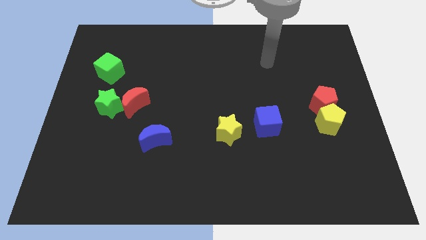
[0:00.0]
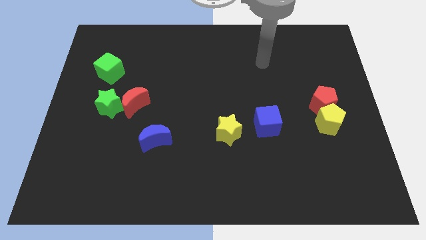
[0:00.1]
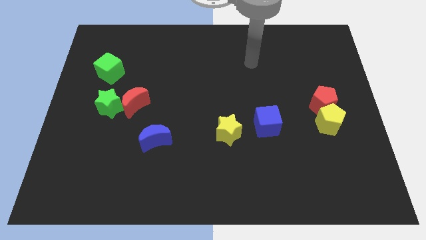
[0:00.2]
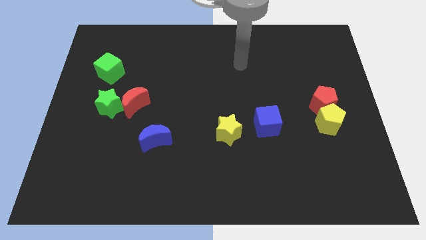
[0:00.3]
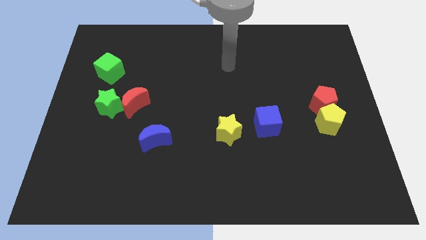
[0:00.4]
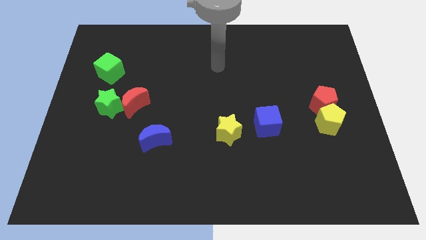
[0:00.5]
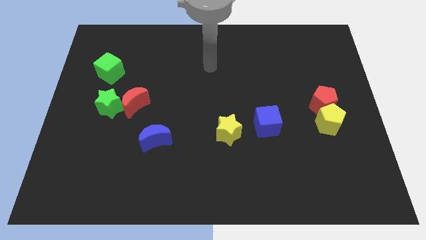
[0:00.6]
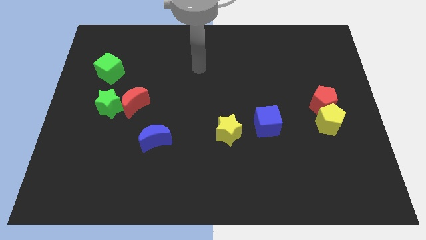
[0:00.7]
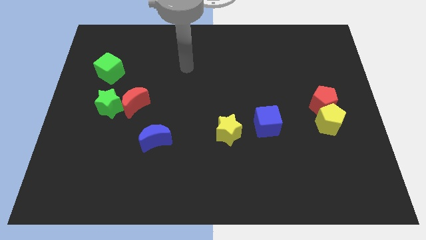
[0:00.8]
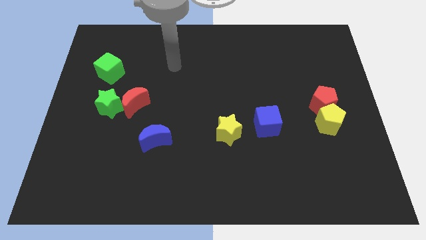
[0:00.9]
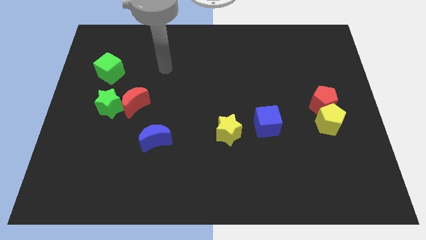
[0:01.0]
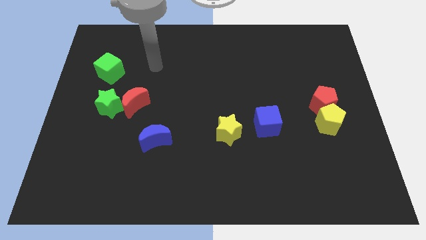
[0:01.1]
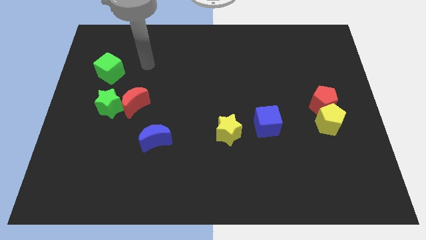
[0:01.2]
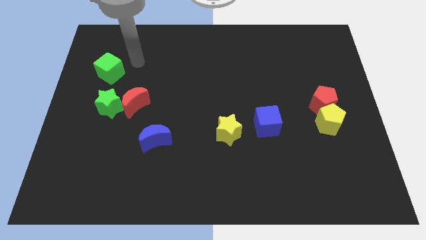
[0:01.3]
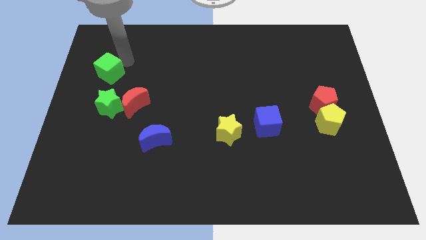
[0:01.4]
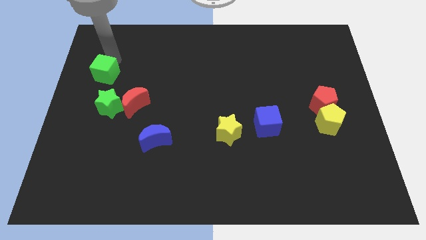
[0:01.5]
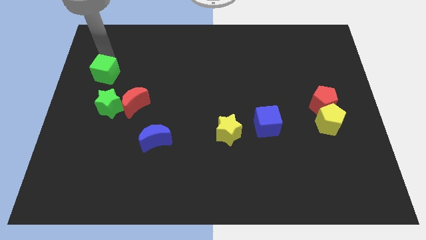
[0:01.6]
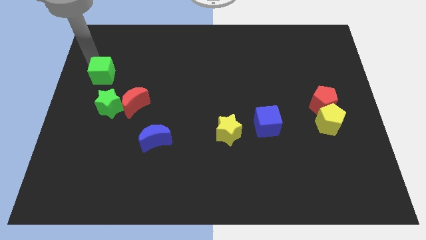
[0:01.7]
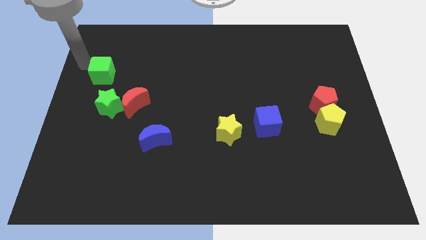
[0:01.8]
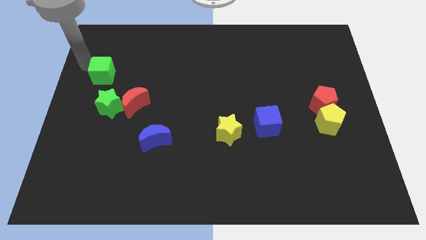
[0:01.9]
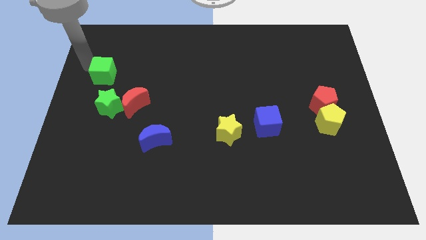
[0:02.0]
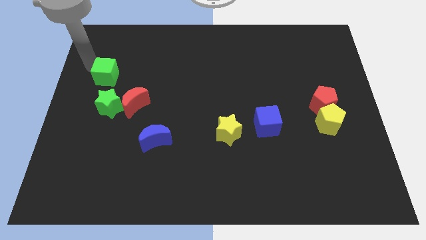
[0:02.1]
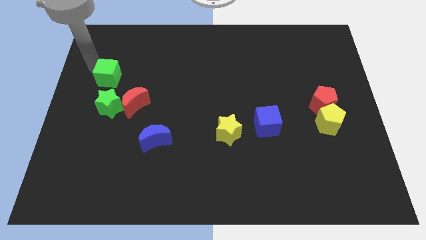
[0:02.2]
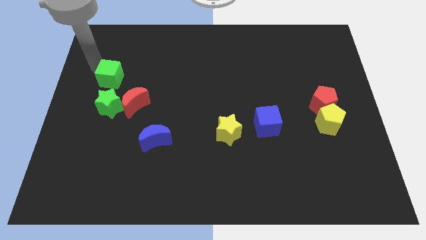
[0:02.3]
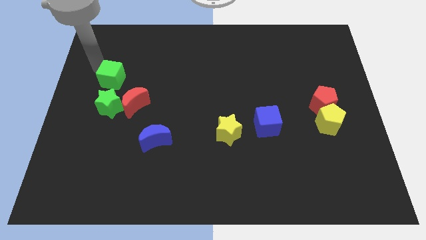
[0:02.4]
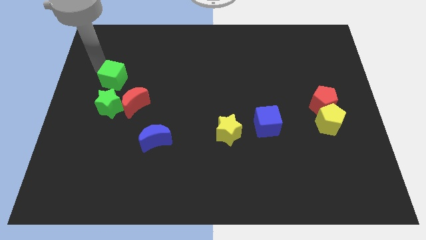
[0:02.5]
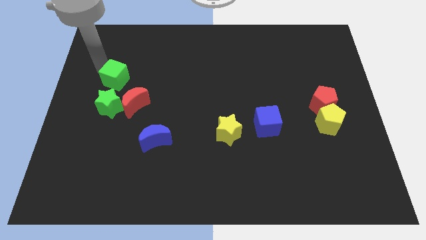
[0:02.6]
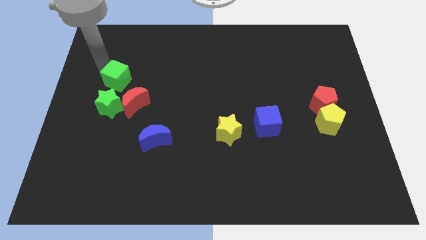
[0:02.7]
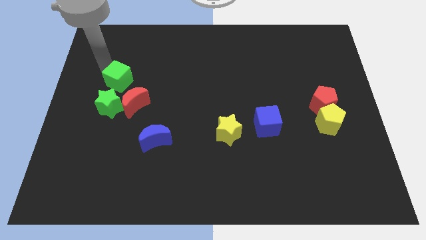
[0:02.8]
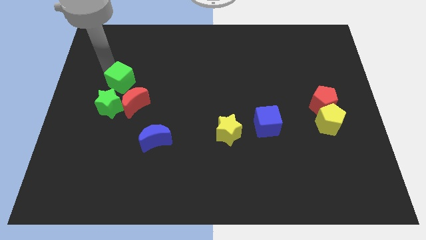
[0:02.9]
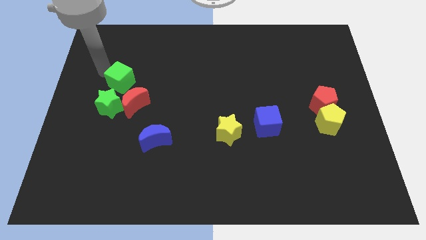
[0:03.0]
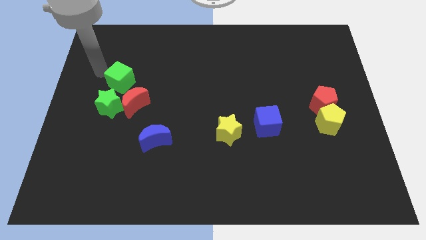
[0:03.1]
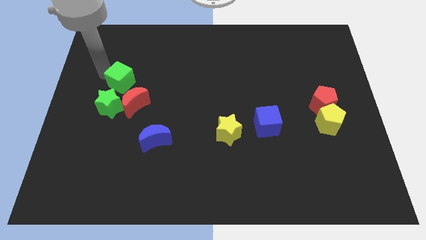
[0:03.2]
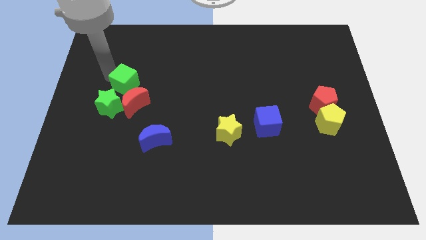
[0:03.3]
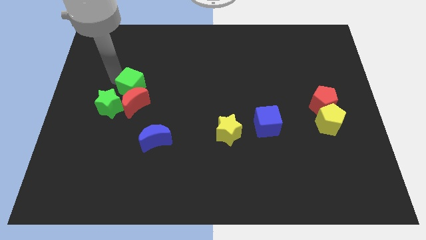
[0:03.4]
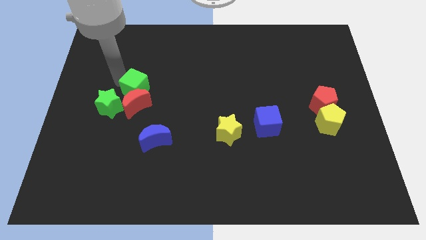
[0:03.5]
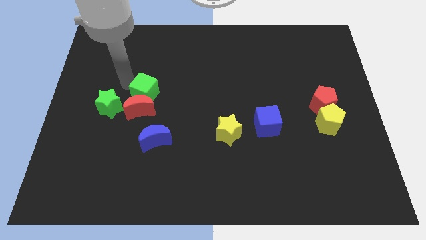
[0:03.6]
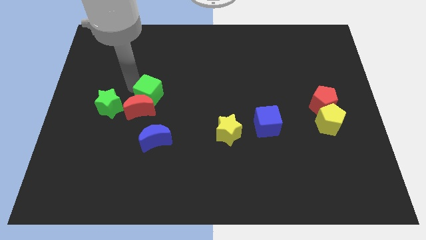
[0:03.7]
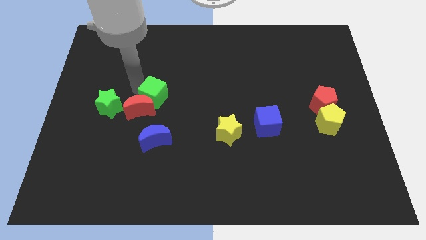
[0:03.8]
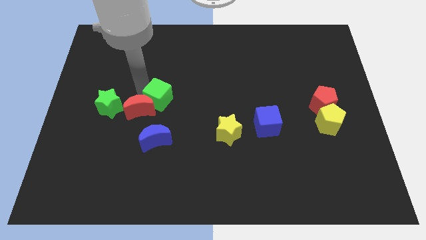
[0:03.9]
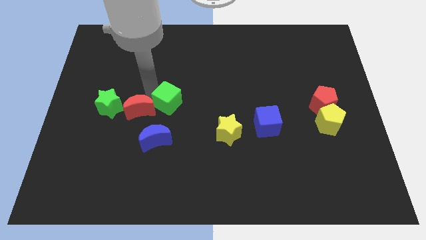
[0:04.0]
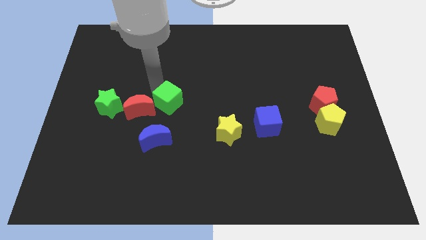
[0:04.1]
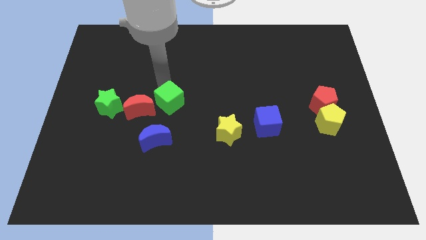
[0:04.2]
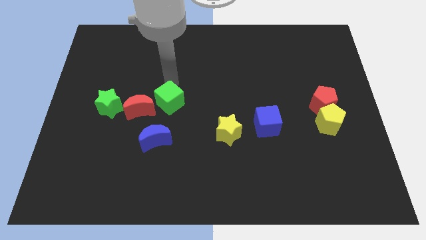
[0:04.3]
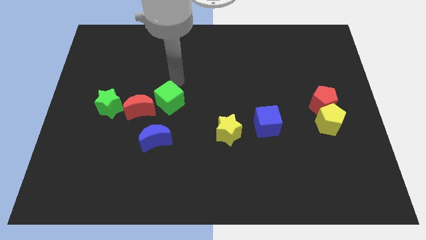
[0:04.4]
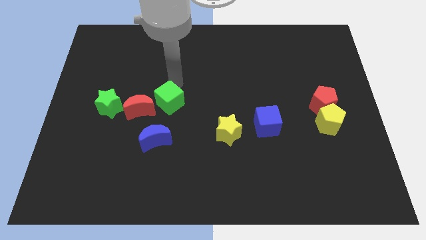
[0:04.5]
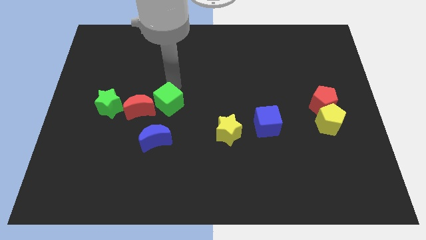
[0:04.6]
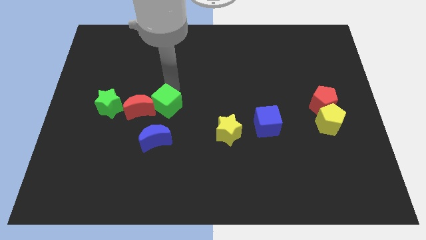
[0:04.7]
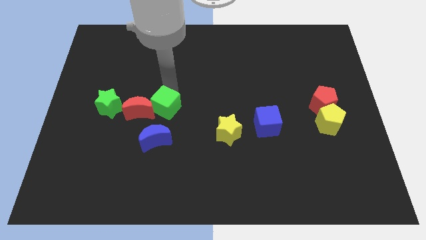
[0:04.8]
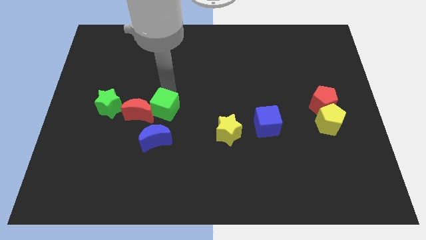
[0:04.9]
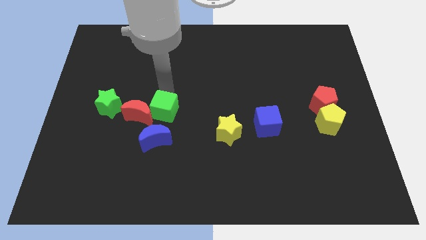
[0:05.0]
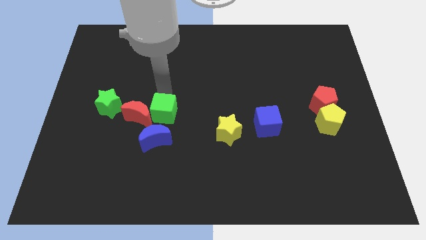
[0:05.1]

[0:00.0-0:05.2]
push the green cube to the bottom right side of the red moon

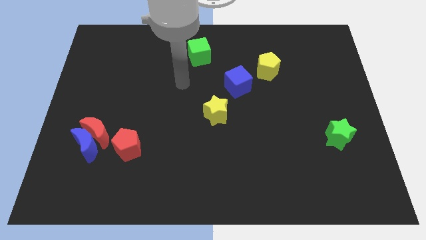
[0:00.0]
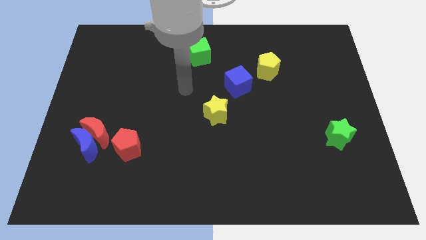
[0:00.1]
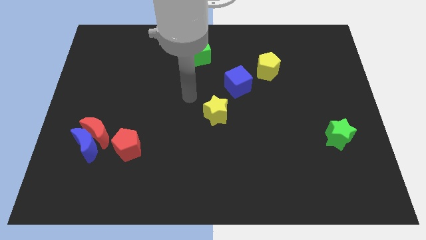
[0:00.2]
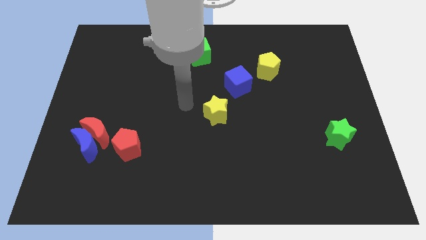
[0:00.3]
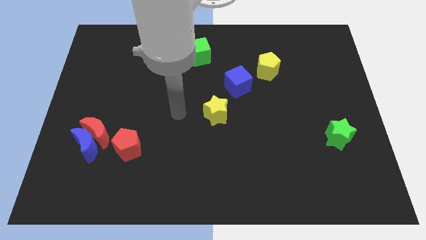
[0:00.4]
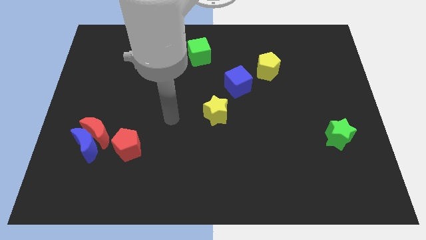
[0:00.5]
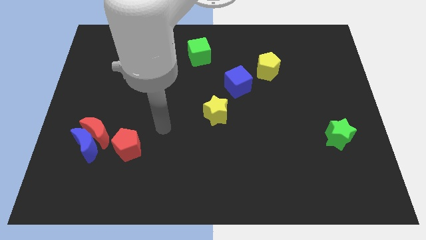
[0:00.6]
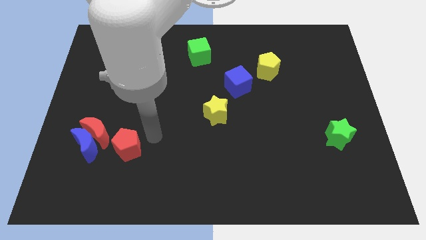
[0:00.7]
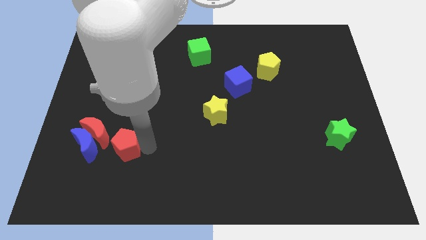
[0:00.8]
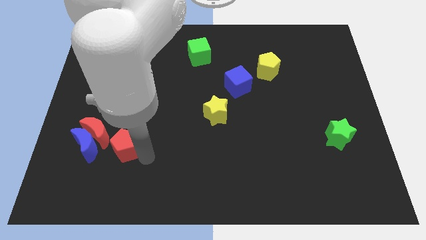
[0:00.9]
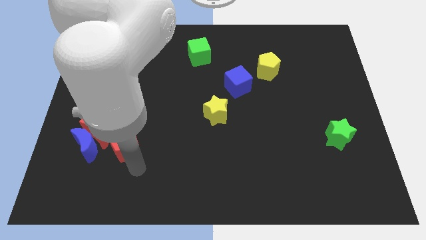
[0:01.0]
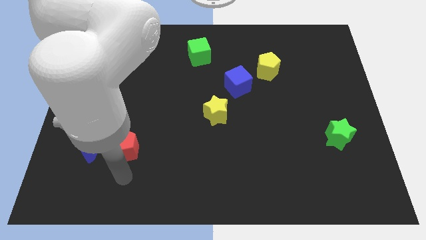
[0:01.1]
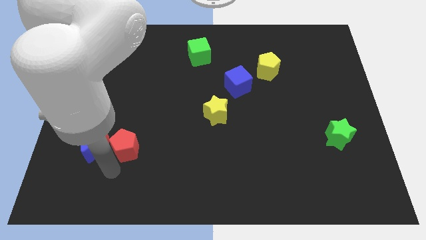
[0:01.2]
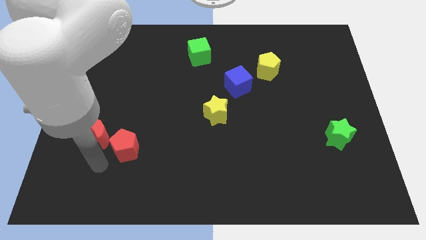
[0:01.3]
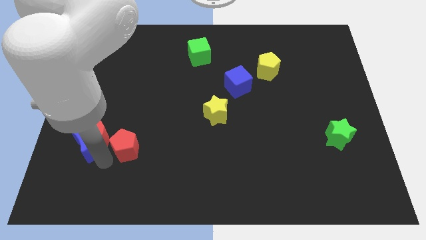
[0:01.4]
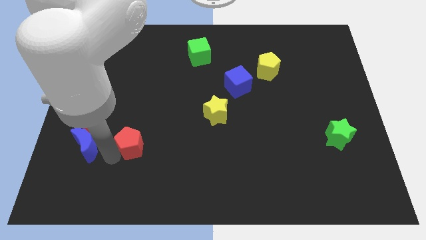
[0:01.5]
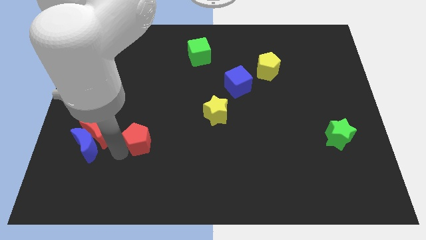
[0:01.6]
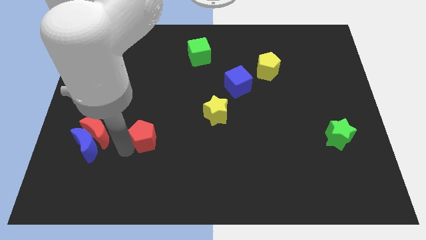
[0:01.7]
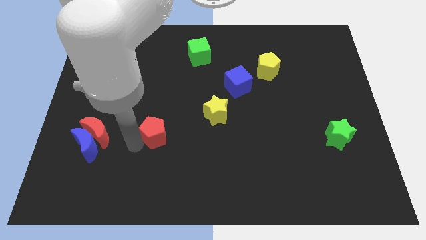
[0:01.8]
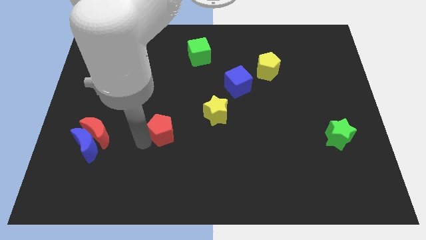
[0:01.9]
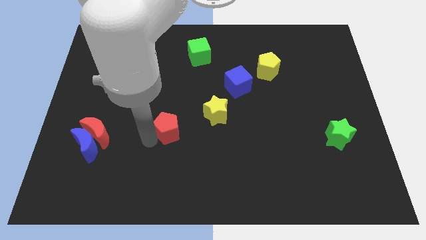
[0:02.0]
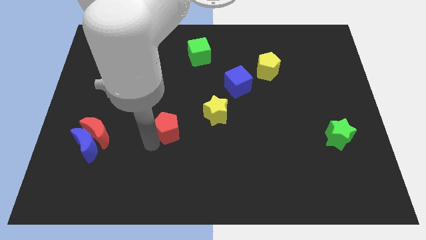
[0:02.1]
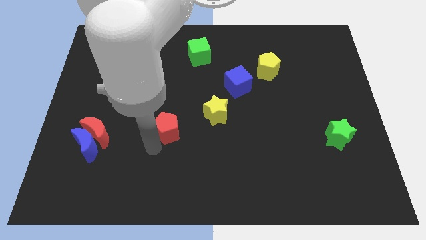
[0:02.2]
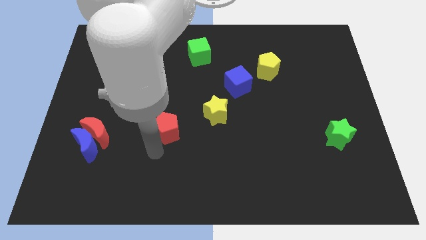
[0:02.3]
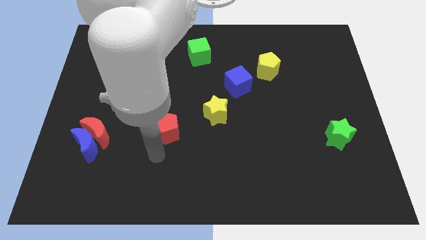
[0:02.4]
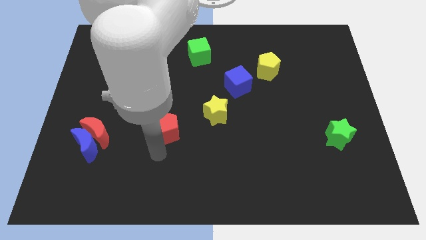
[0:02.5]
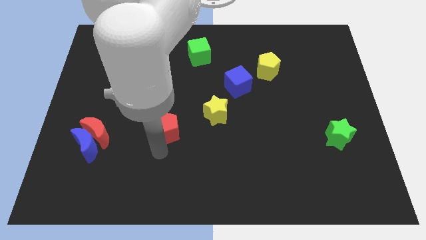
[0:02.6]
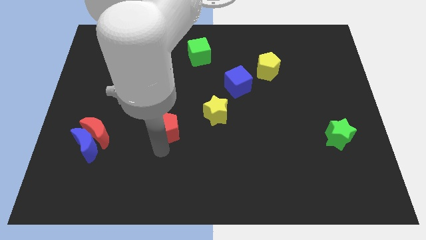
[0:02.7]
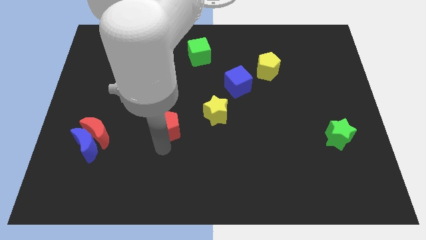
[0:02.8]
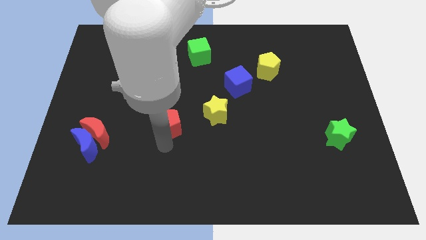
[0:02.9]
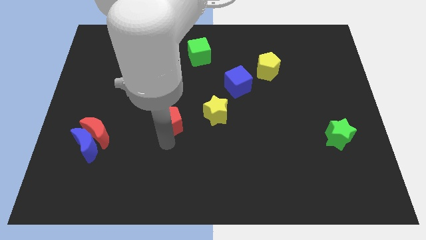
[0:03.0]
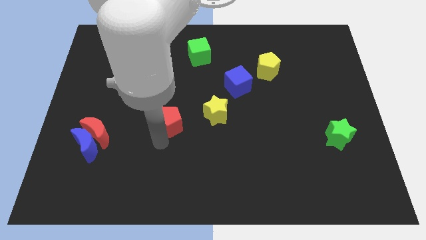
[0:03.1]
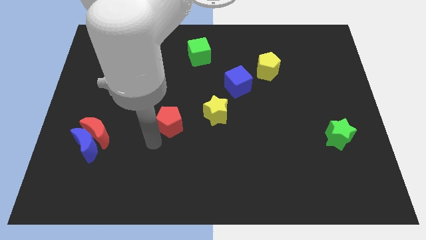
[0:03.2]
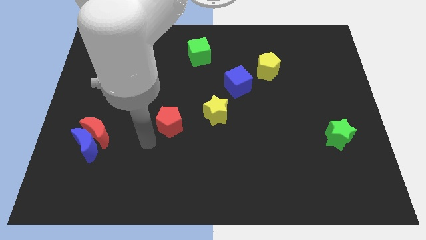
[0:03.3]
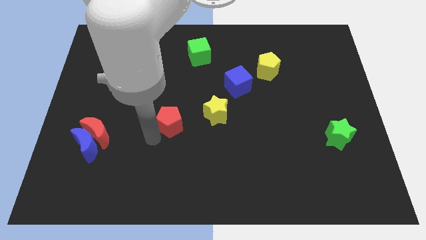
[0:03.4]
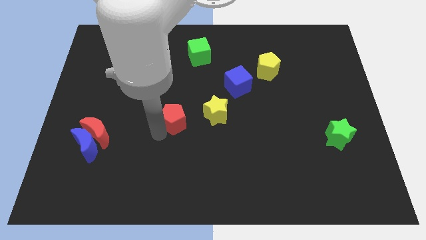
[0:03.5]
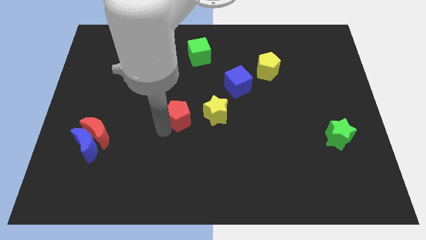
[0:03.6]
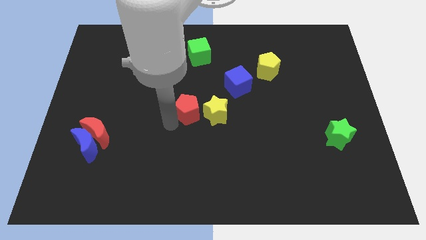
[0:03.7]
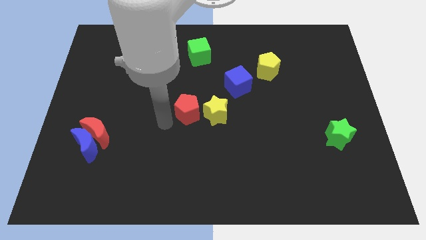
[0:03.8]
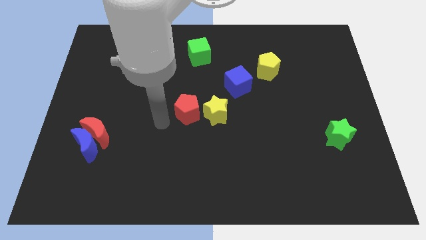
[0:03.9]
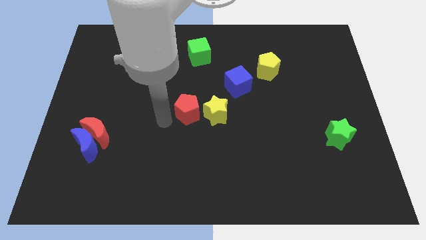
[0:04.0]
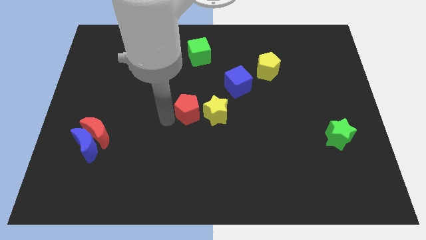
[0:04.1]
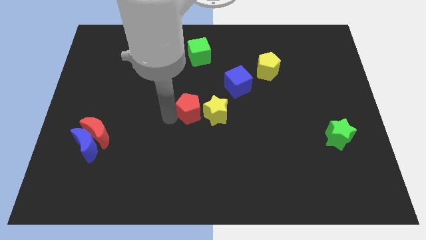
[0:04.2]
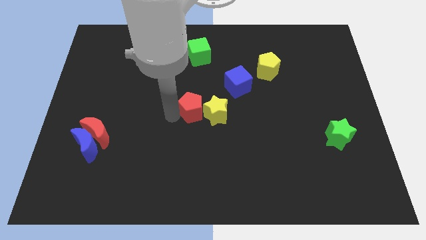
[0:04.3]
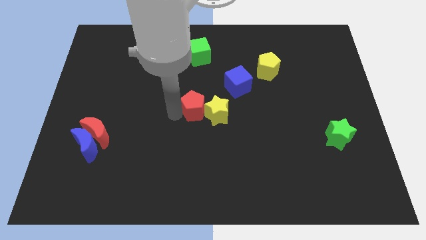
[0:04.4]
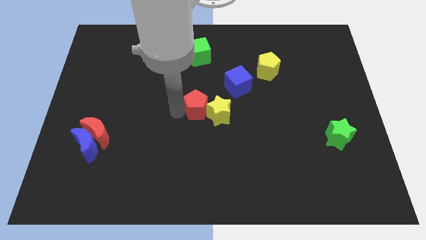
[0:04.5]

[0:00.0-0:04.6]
move the red pentagon to the bottom left side of the blue cube
